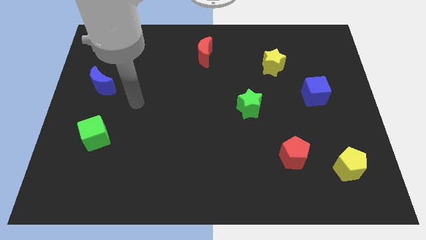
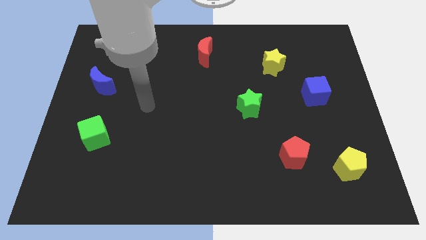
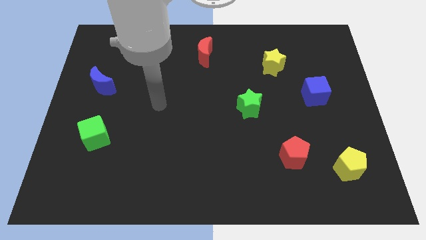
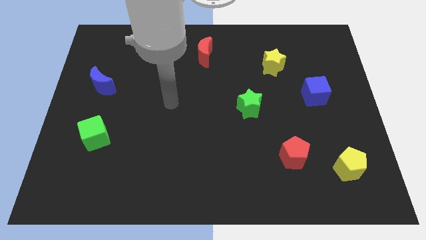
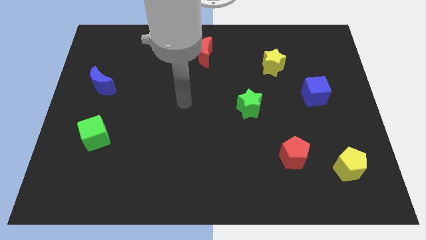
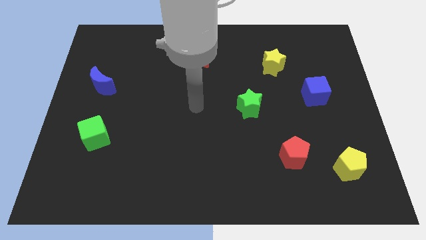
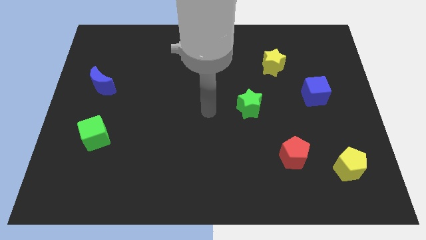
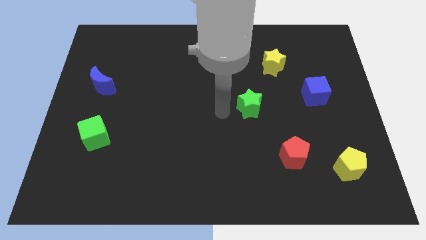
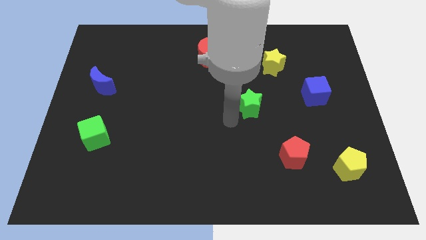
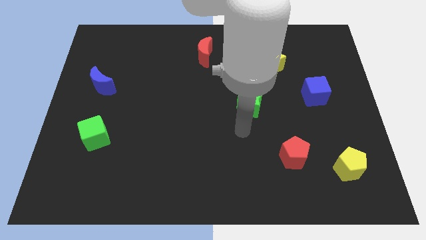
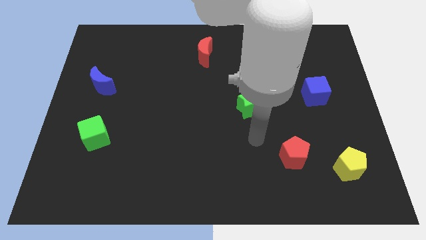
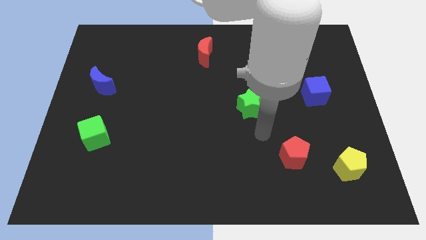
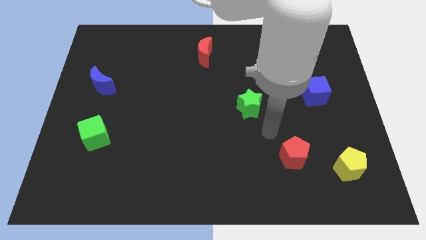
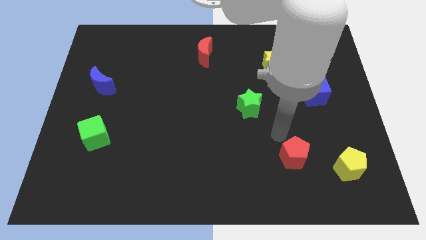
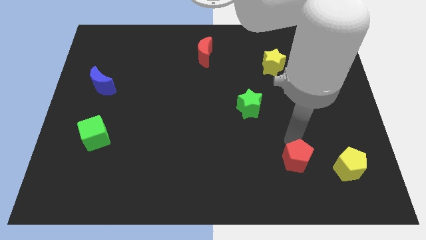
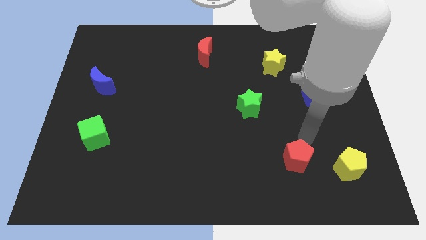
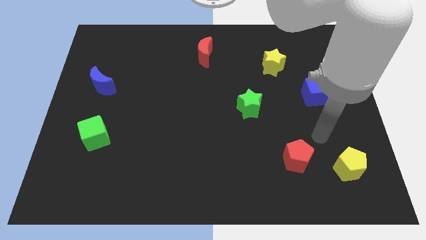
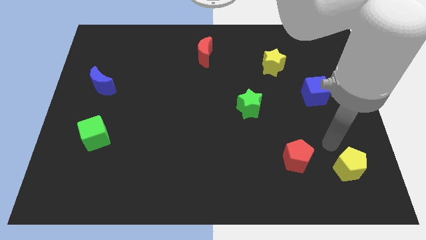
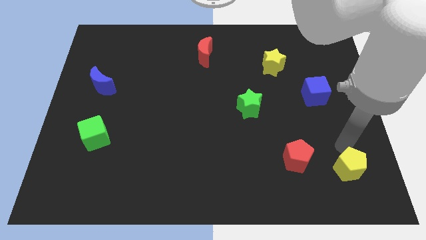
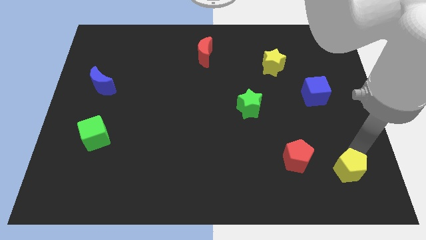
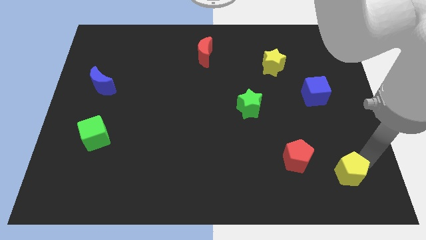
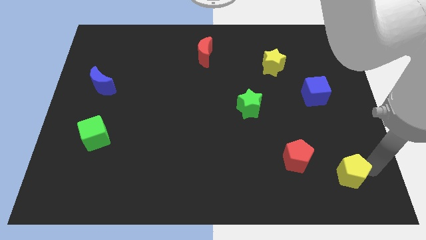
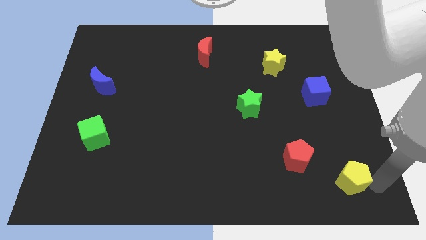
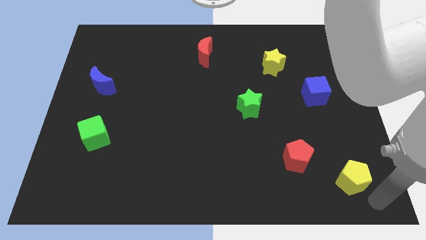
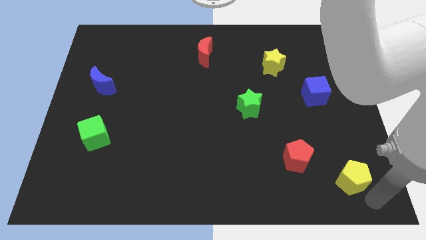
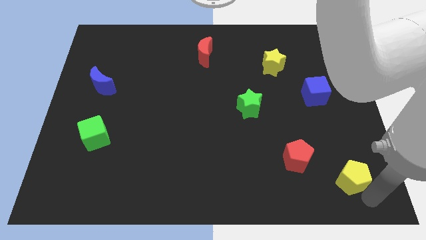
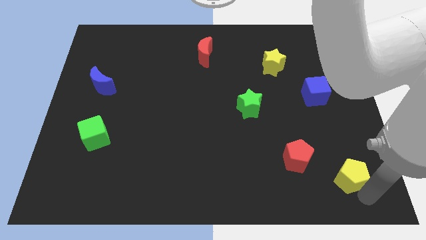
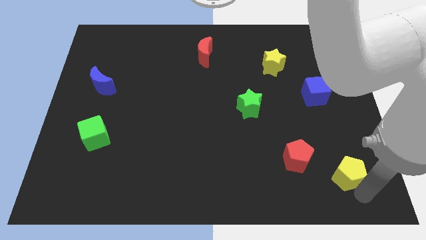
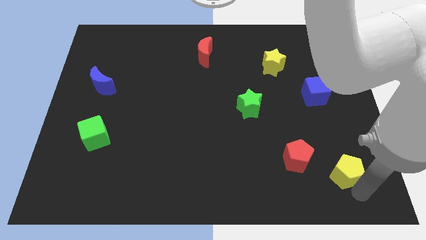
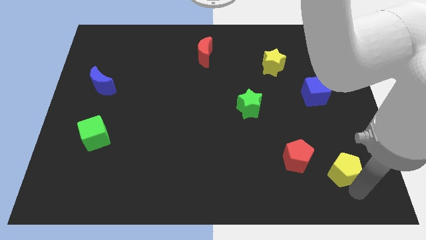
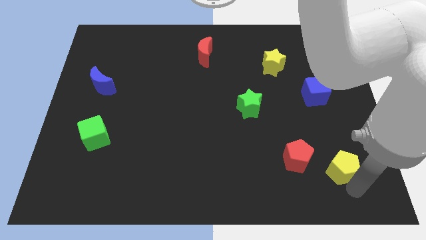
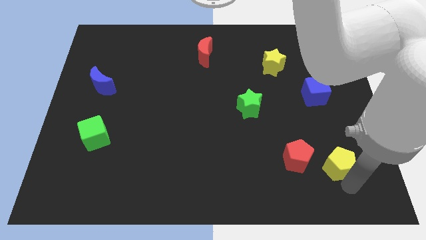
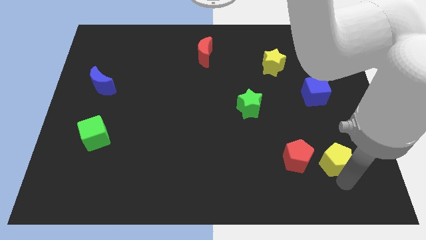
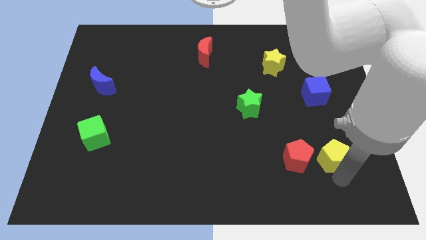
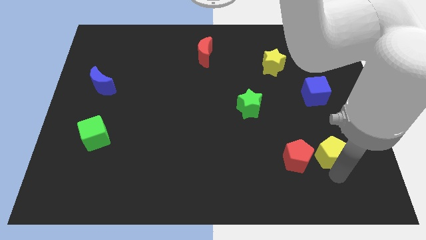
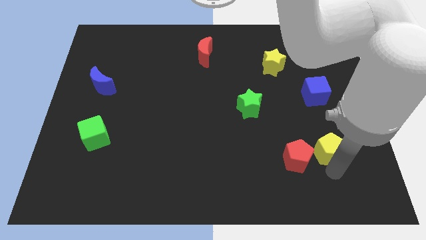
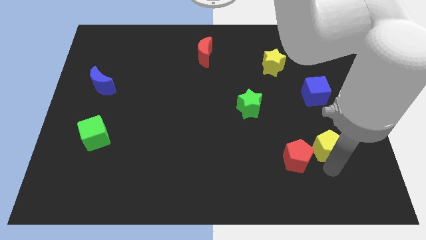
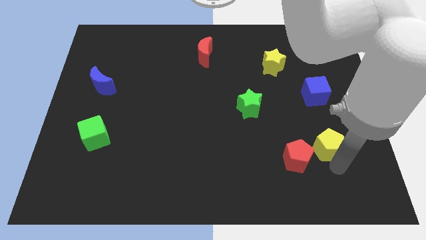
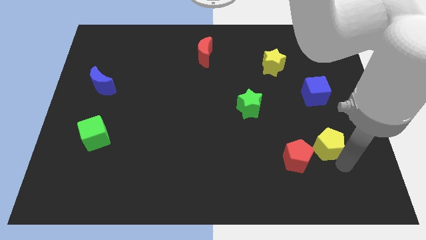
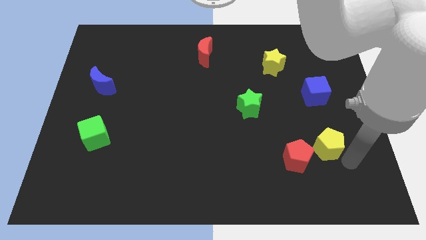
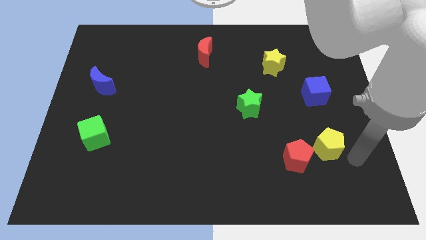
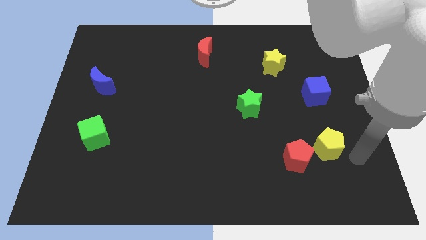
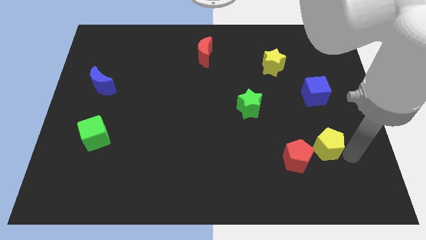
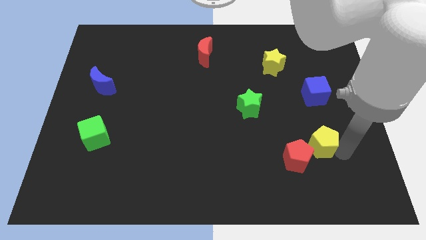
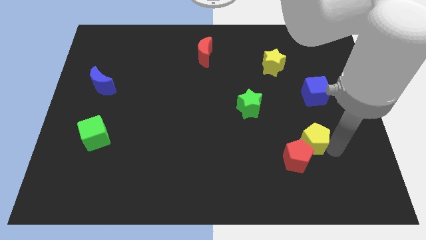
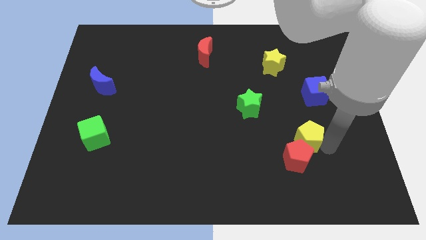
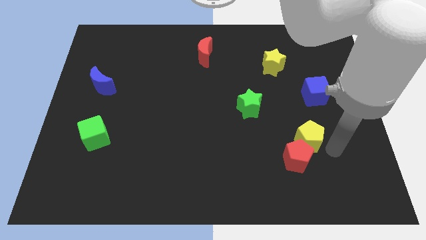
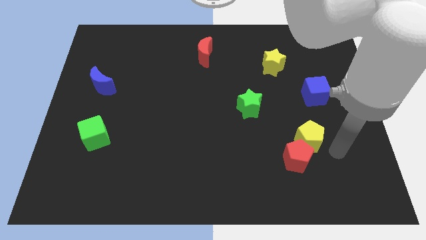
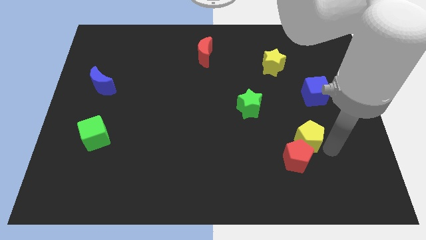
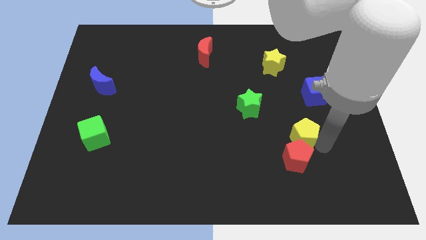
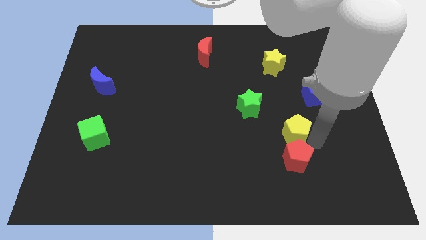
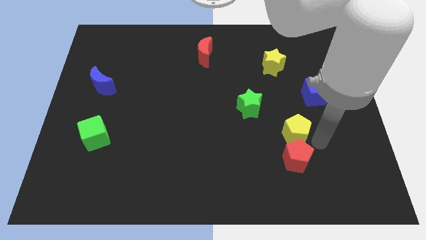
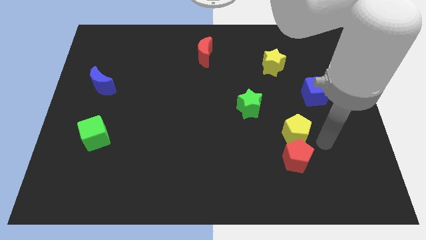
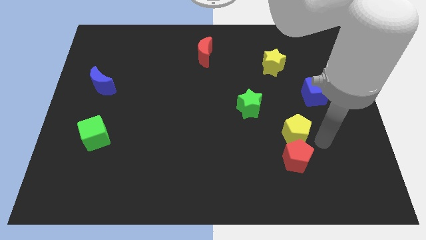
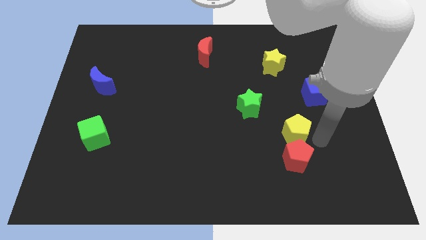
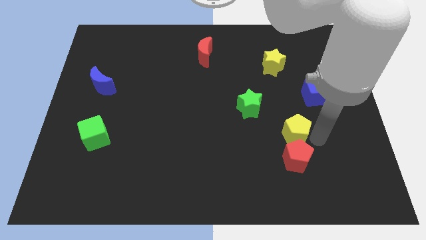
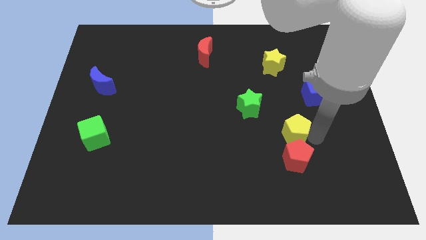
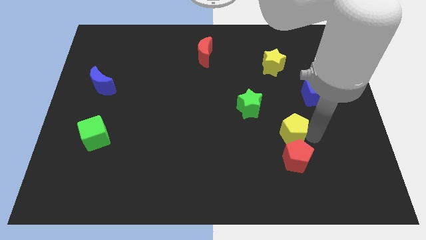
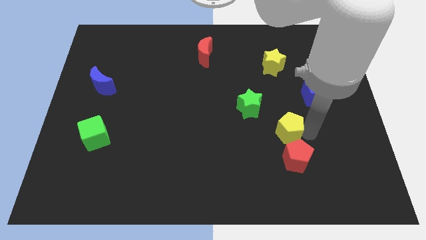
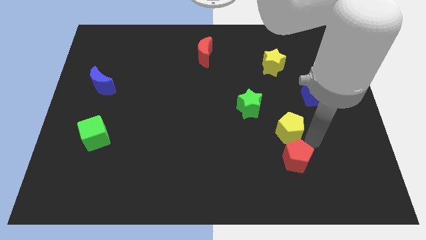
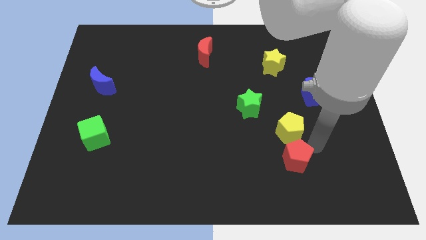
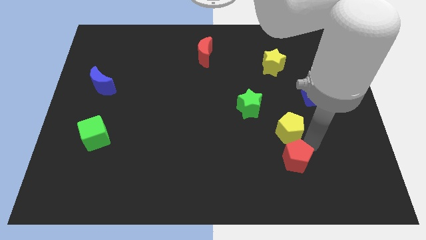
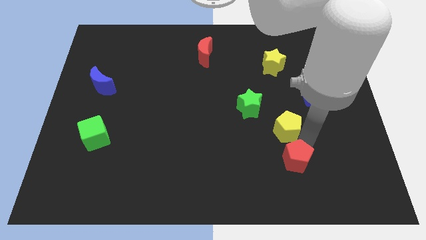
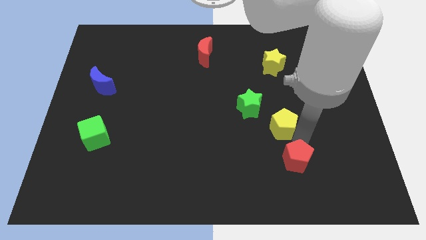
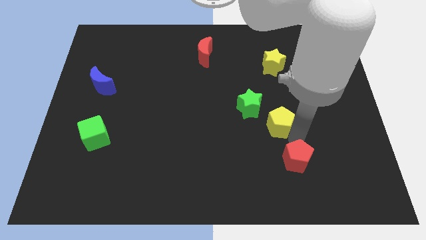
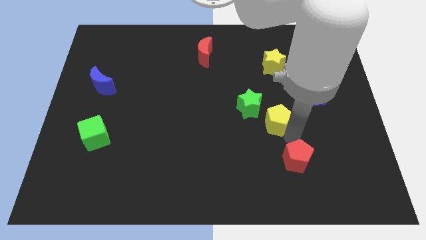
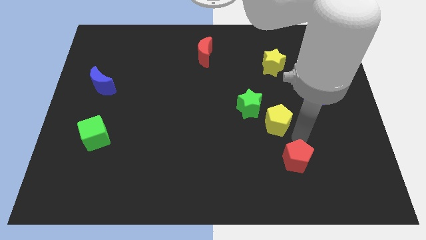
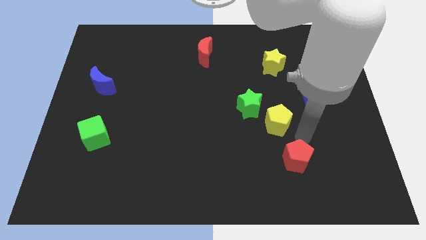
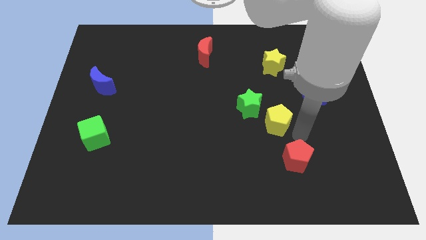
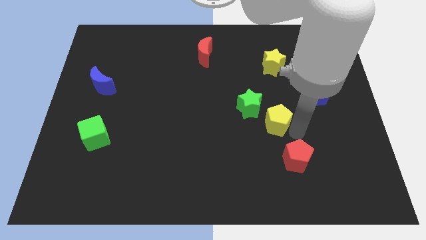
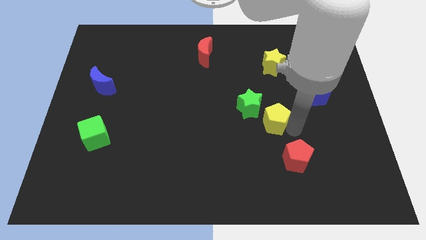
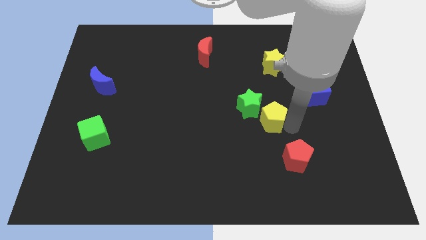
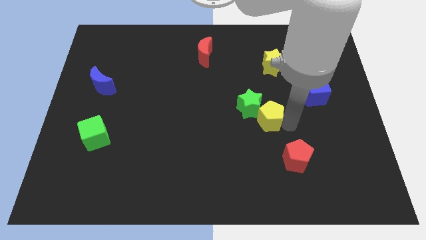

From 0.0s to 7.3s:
move the yellow pentagon towards the green star

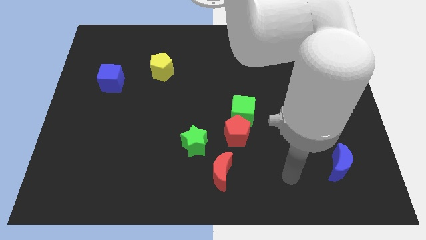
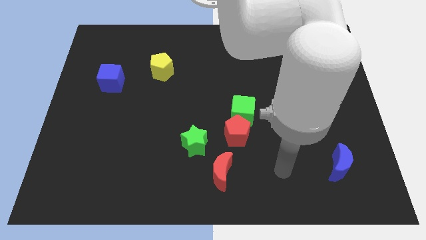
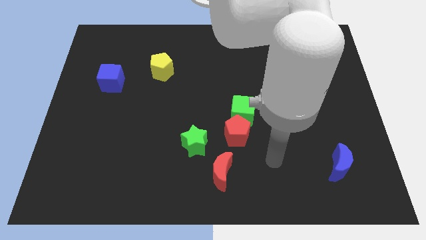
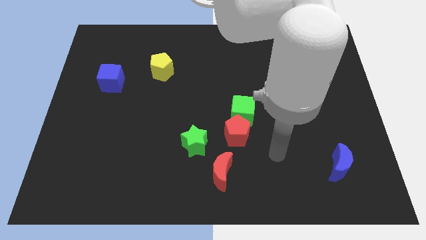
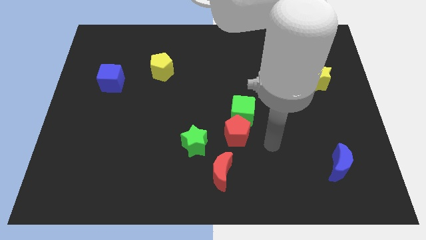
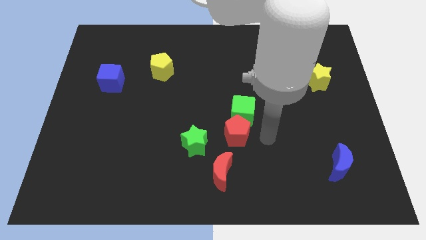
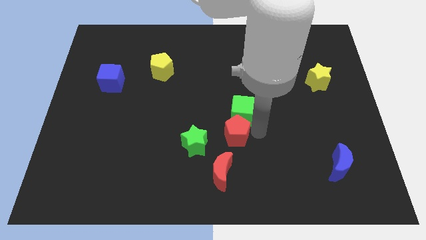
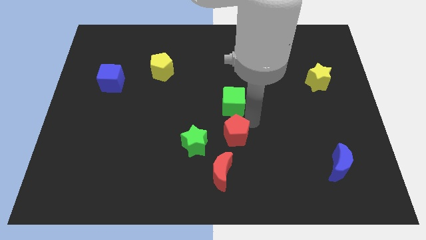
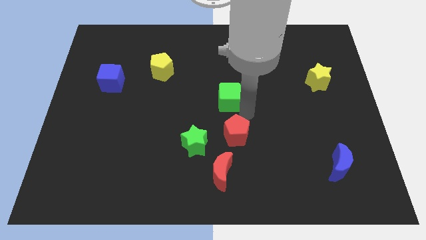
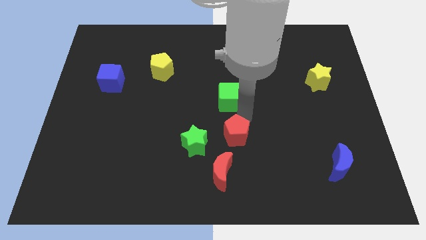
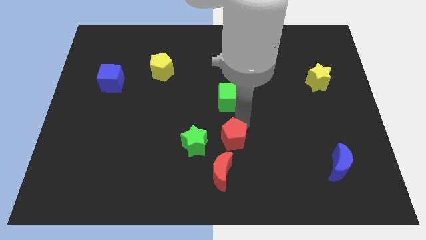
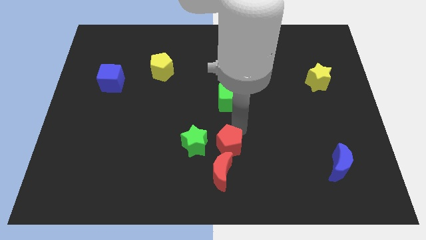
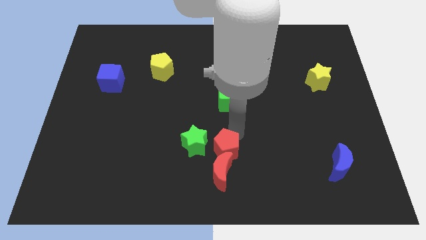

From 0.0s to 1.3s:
move the red pentagon close to the red moon
